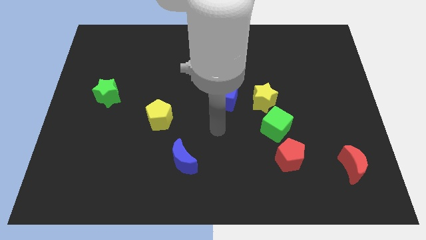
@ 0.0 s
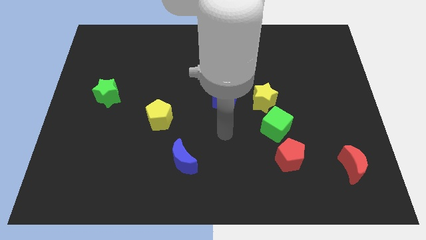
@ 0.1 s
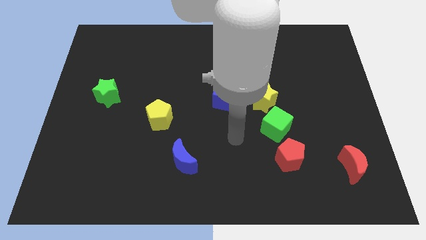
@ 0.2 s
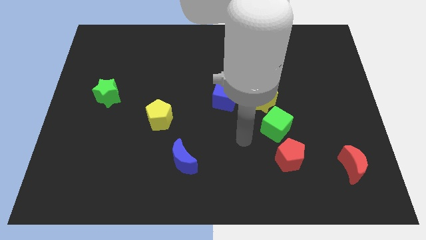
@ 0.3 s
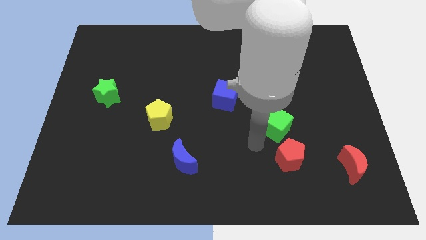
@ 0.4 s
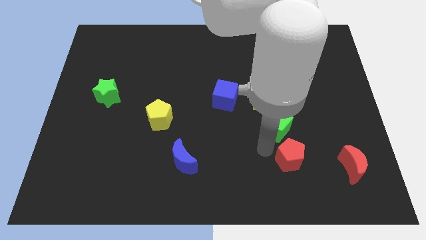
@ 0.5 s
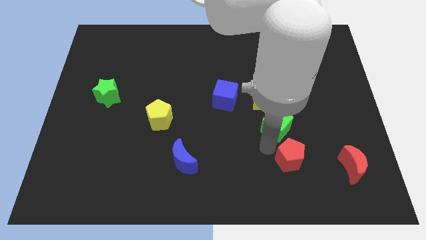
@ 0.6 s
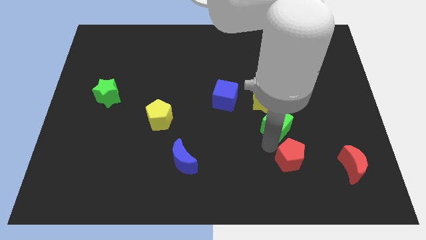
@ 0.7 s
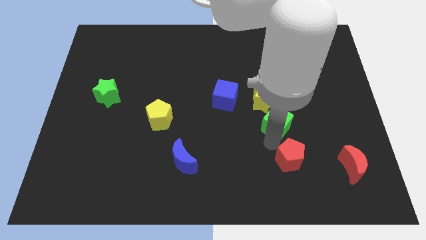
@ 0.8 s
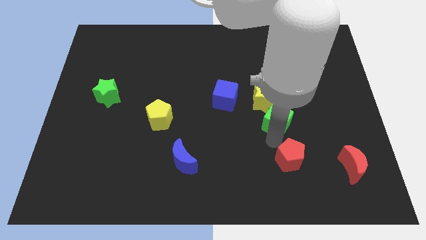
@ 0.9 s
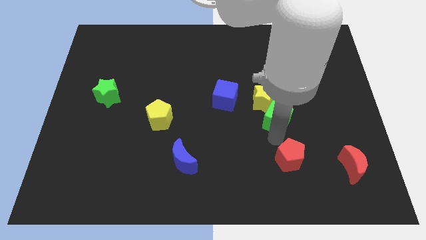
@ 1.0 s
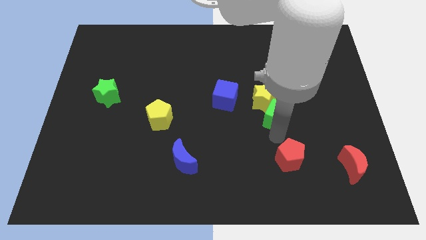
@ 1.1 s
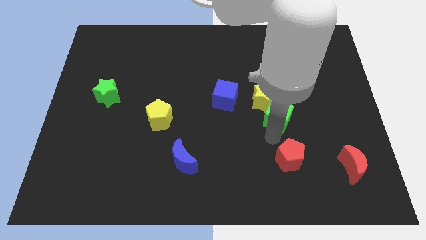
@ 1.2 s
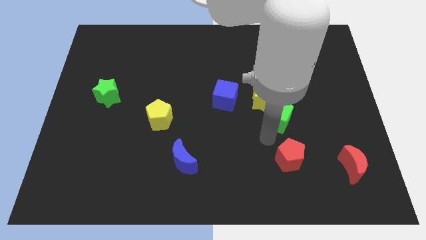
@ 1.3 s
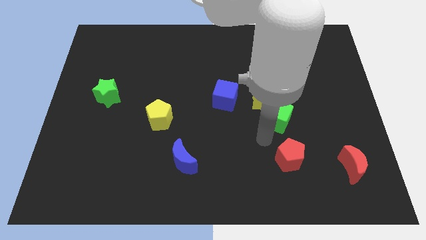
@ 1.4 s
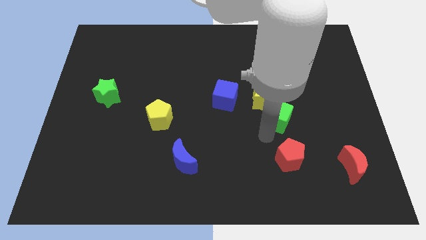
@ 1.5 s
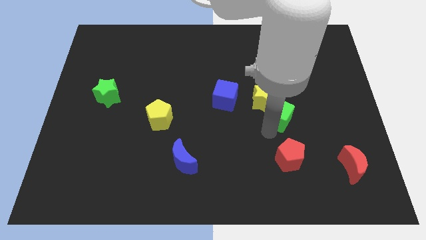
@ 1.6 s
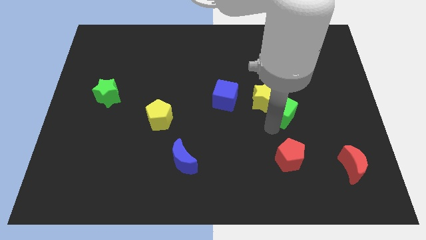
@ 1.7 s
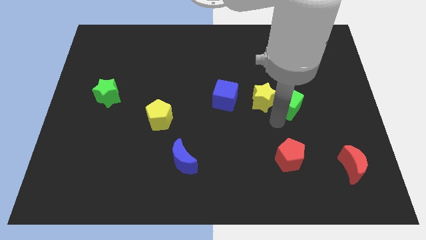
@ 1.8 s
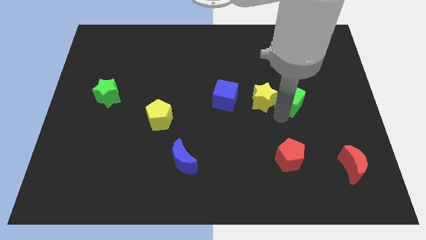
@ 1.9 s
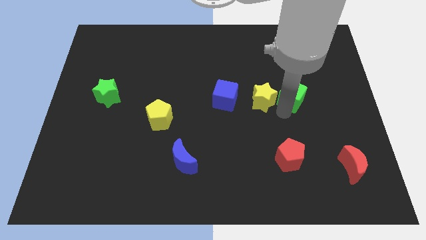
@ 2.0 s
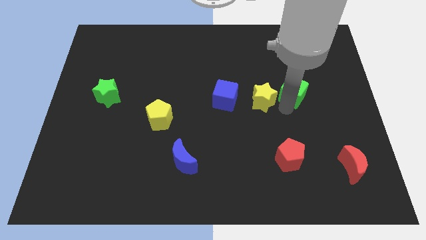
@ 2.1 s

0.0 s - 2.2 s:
move the green cube away from the yellow star and red pentagon

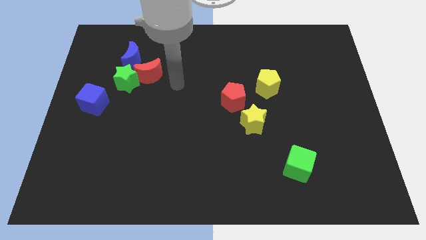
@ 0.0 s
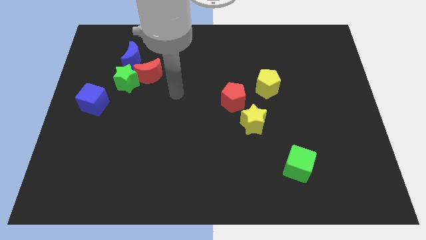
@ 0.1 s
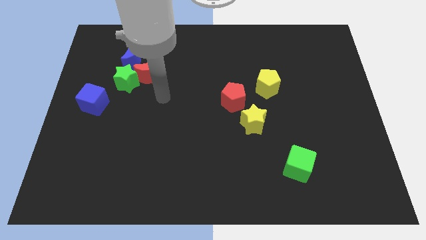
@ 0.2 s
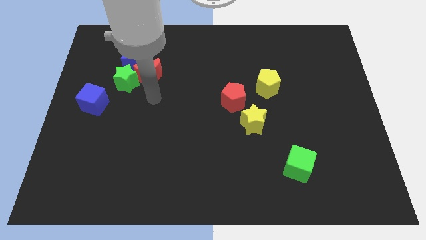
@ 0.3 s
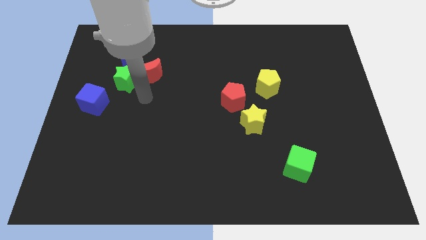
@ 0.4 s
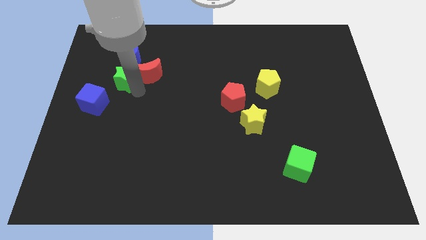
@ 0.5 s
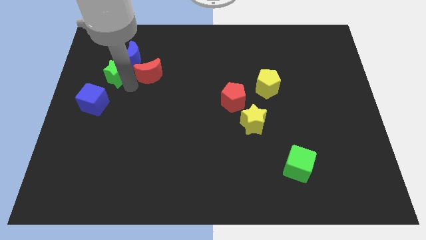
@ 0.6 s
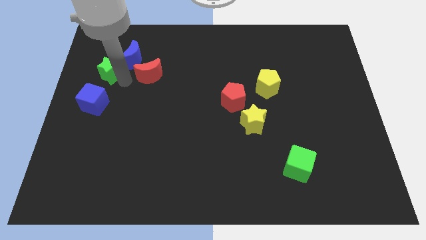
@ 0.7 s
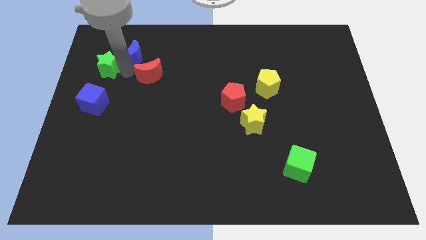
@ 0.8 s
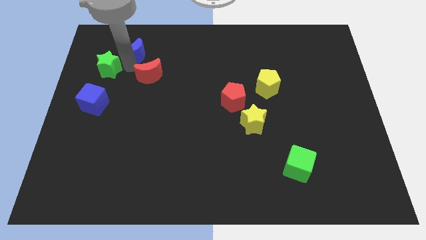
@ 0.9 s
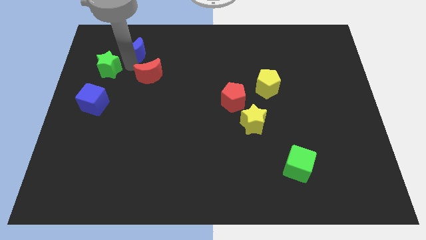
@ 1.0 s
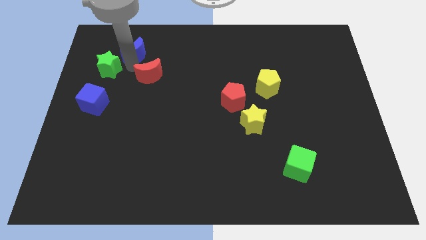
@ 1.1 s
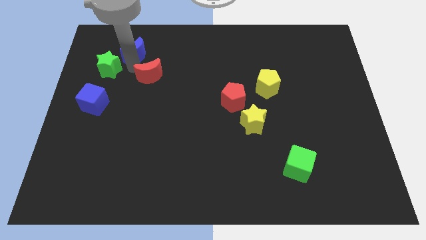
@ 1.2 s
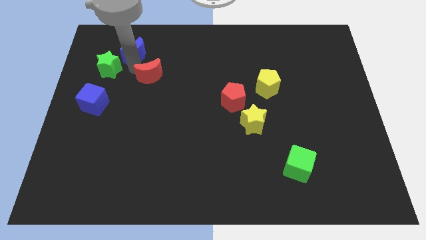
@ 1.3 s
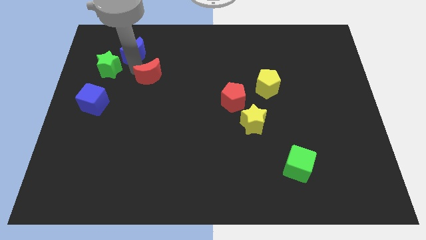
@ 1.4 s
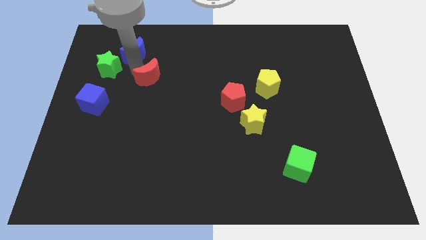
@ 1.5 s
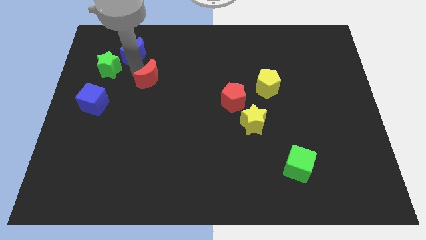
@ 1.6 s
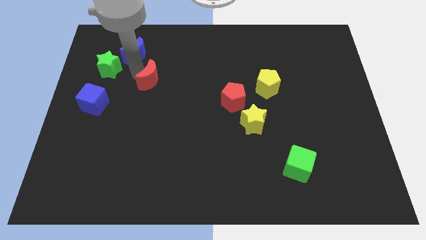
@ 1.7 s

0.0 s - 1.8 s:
move the red moon away from the green star and blue moon

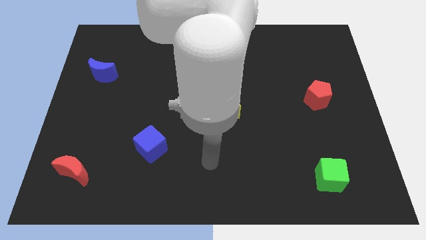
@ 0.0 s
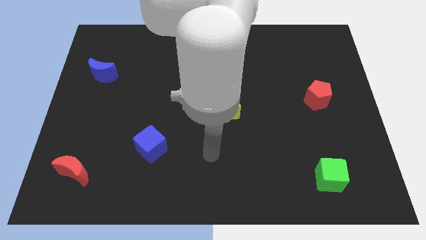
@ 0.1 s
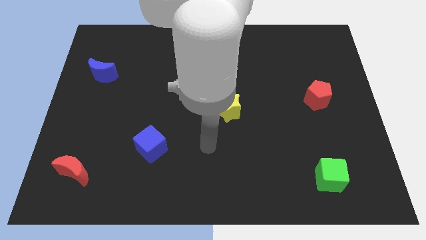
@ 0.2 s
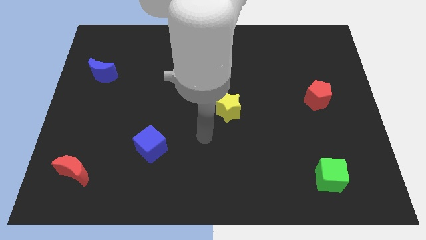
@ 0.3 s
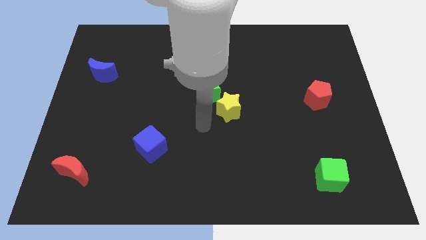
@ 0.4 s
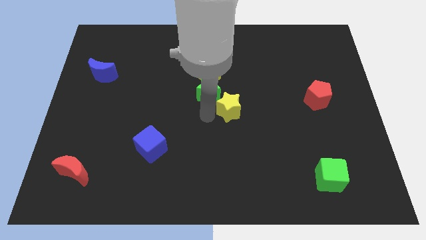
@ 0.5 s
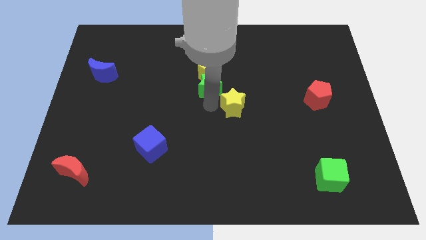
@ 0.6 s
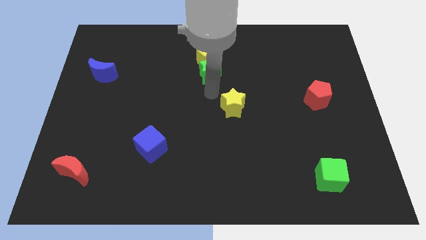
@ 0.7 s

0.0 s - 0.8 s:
pull the yellow star apart from the green star

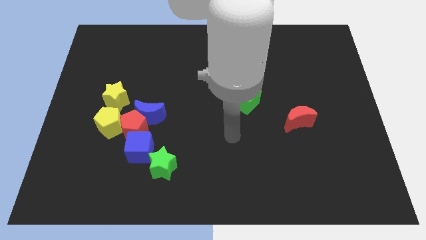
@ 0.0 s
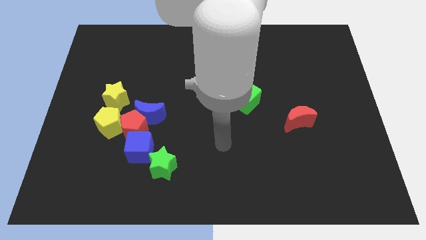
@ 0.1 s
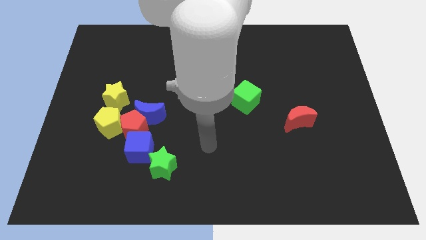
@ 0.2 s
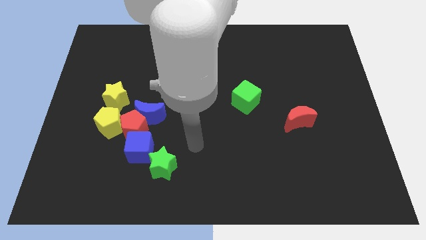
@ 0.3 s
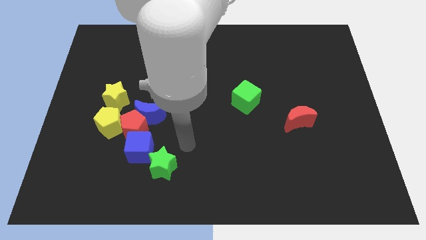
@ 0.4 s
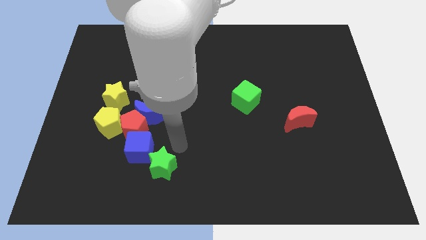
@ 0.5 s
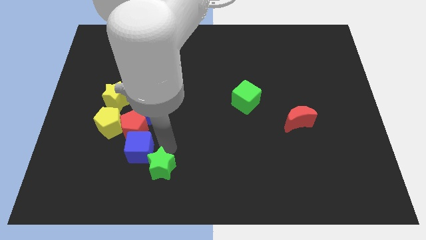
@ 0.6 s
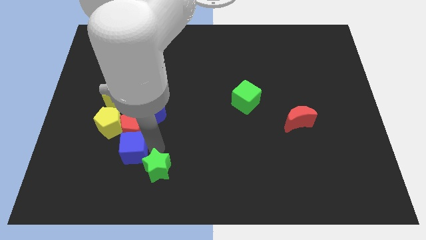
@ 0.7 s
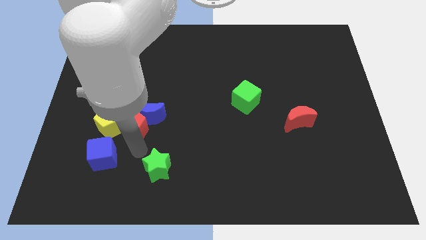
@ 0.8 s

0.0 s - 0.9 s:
pull the green star apart from the blue cube

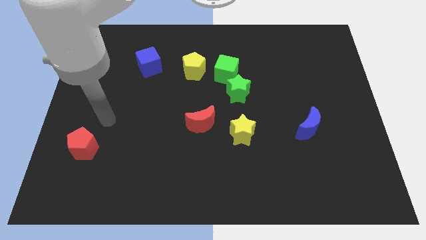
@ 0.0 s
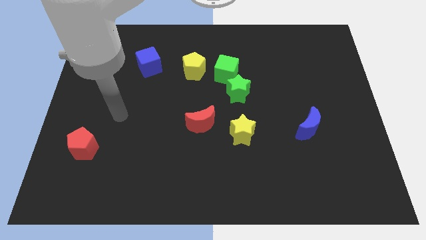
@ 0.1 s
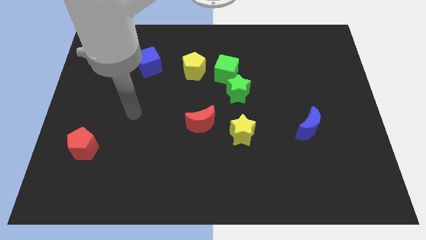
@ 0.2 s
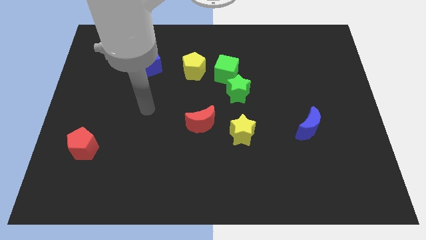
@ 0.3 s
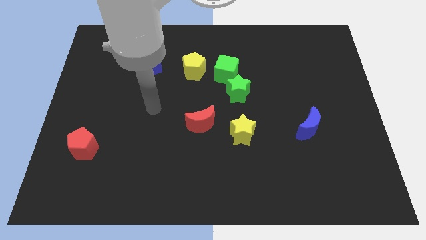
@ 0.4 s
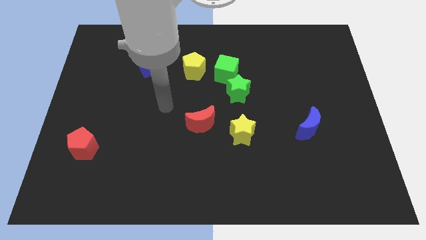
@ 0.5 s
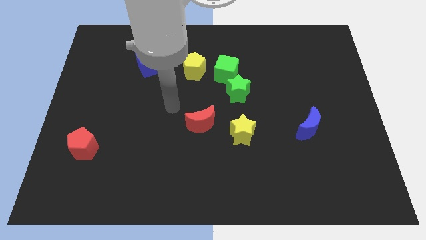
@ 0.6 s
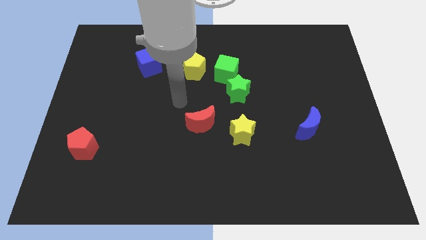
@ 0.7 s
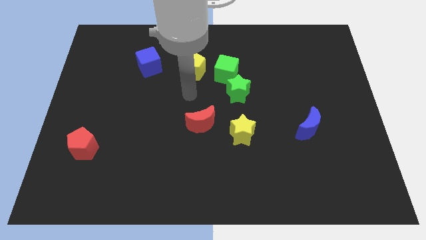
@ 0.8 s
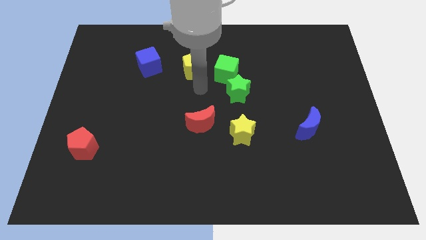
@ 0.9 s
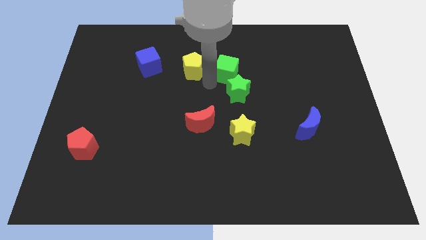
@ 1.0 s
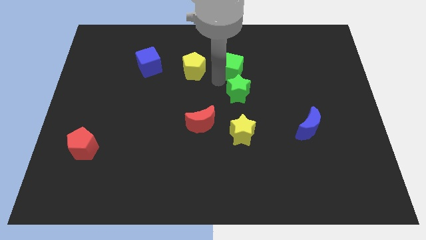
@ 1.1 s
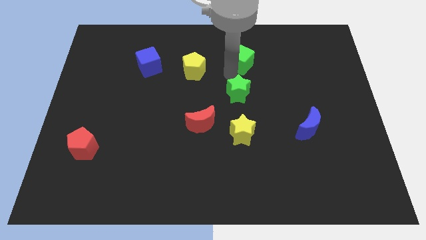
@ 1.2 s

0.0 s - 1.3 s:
move the green star away from the green cube

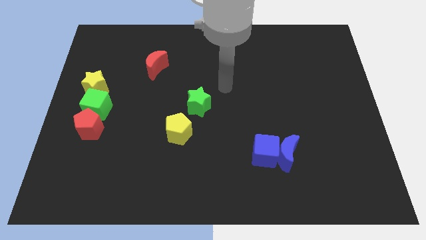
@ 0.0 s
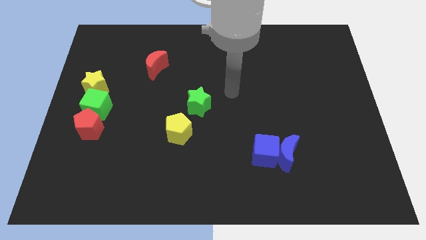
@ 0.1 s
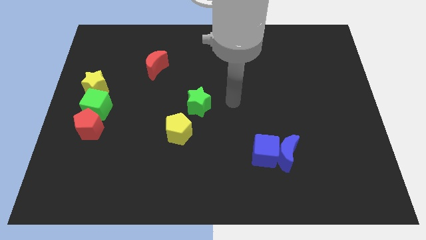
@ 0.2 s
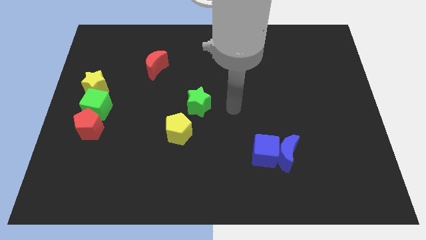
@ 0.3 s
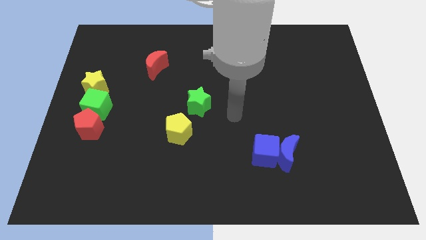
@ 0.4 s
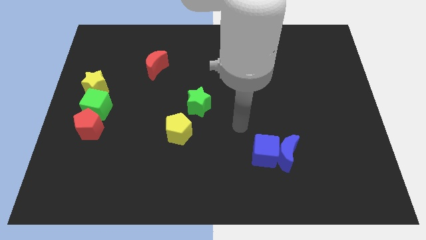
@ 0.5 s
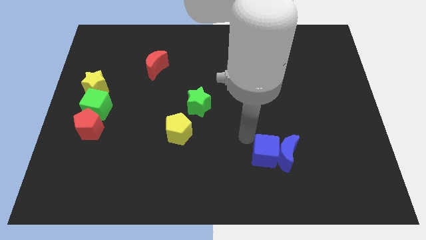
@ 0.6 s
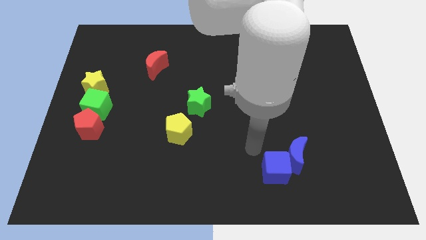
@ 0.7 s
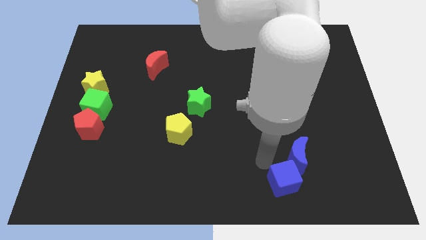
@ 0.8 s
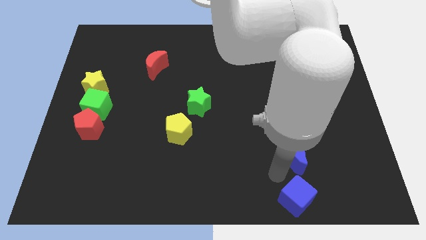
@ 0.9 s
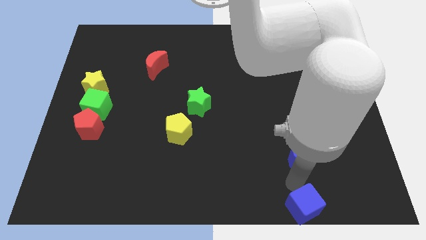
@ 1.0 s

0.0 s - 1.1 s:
move the blue moon away from the blue cube

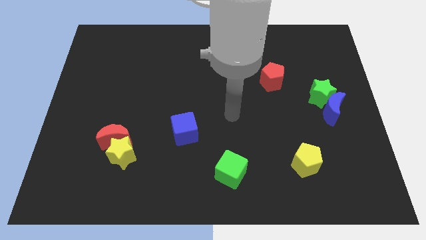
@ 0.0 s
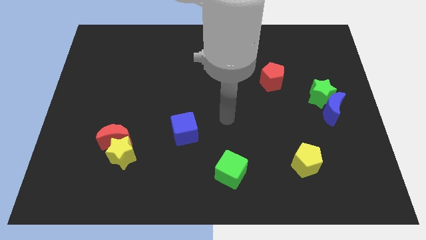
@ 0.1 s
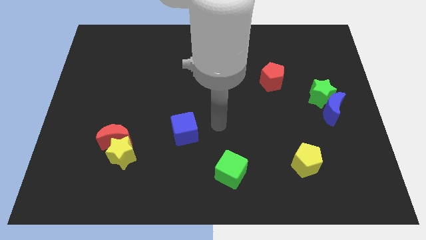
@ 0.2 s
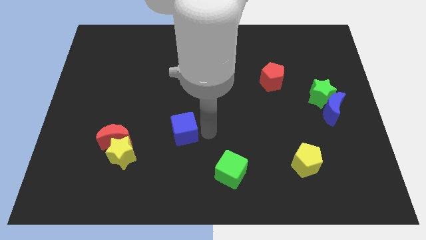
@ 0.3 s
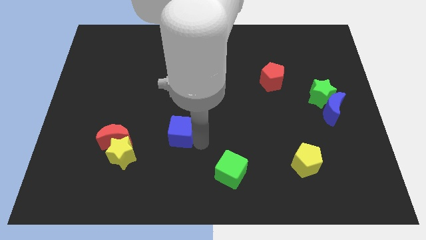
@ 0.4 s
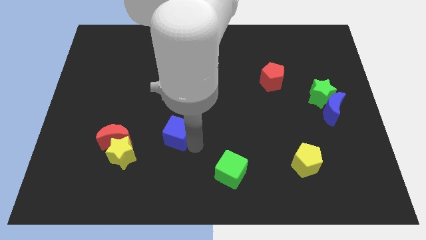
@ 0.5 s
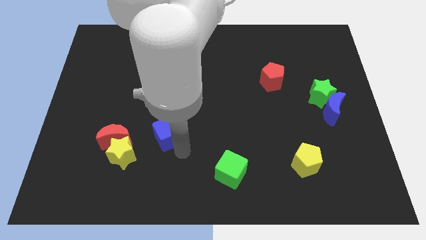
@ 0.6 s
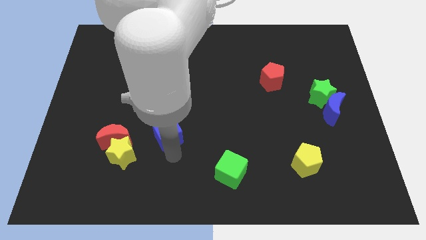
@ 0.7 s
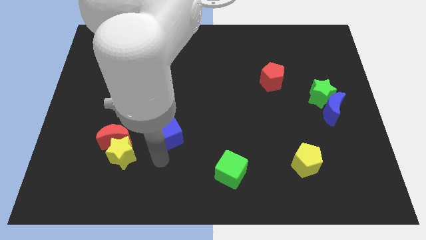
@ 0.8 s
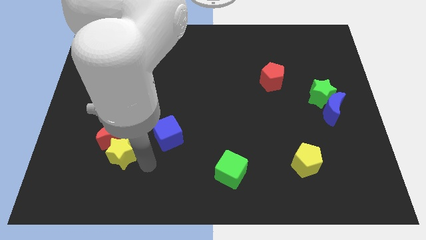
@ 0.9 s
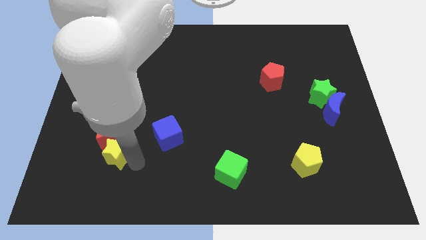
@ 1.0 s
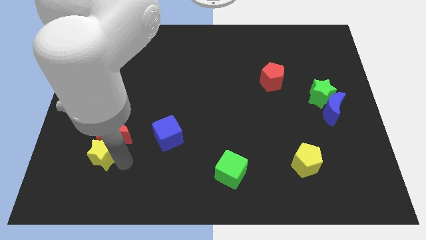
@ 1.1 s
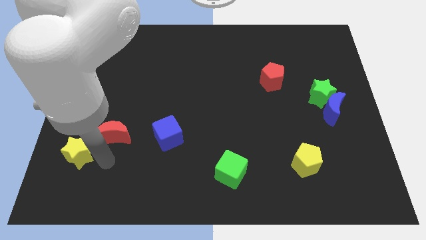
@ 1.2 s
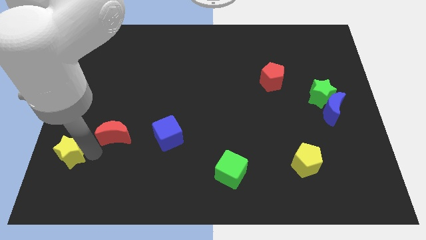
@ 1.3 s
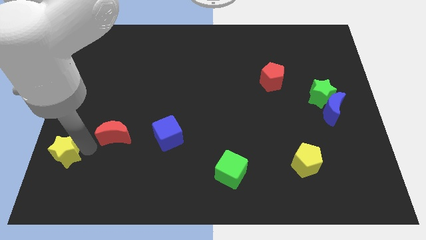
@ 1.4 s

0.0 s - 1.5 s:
pull the red moon apart from the yellow star
